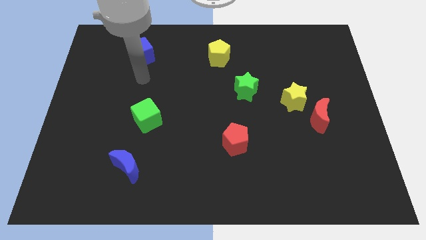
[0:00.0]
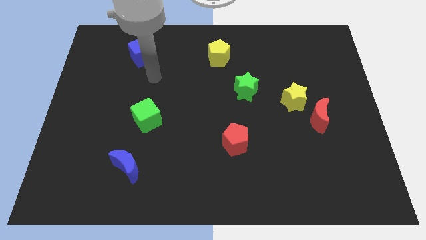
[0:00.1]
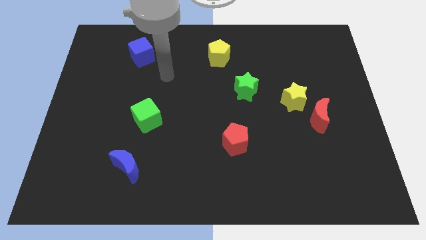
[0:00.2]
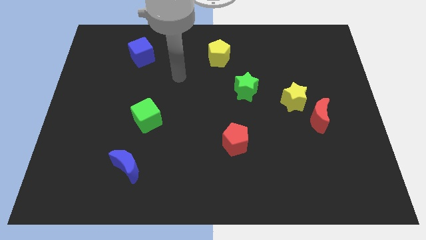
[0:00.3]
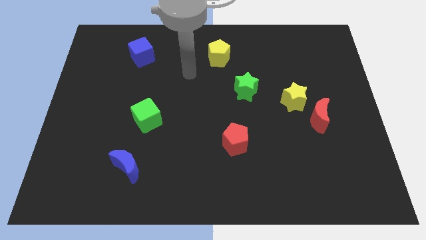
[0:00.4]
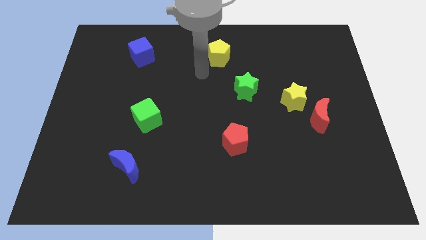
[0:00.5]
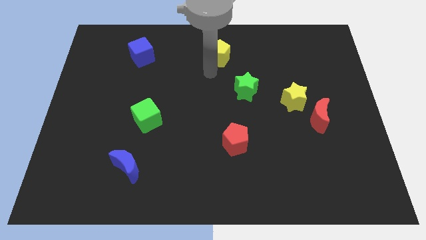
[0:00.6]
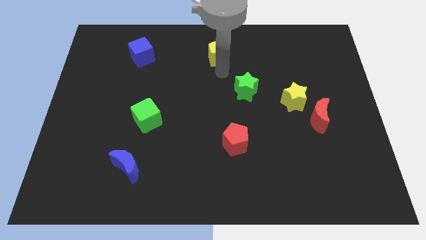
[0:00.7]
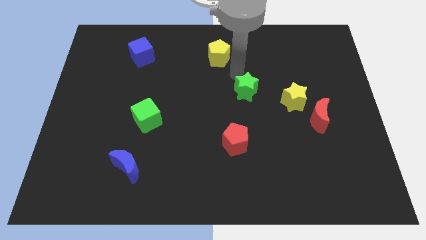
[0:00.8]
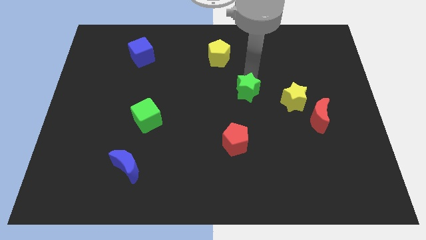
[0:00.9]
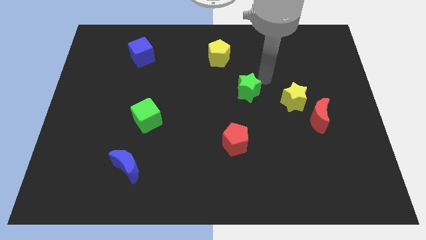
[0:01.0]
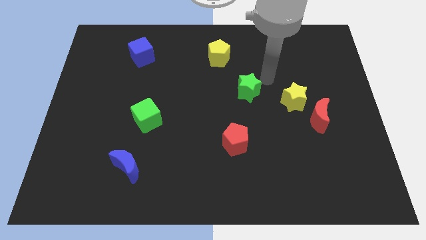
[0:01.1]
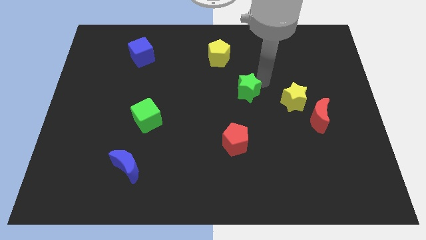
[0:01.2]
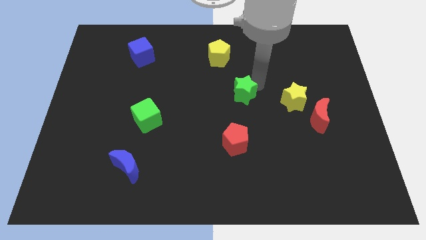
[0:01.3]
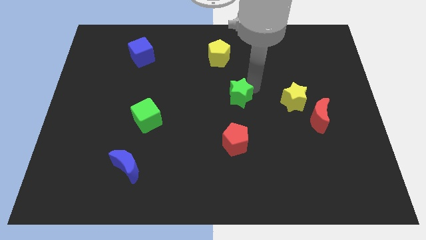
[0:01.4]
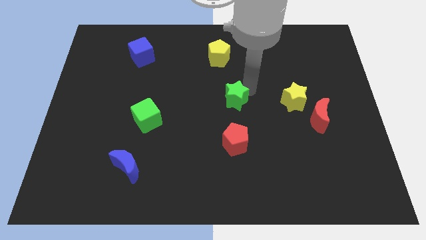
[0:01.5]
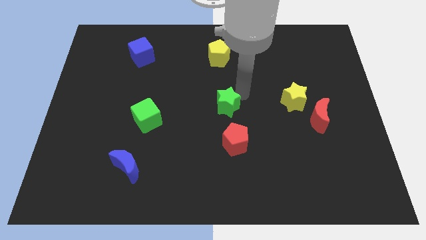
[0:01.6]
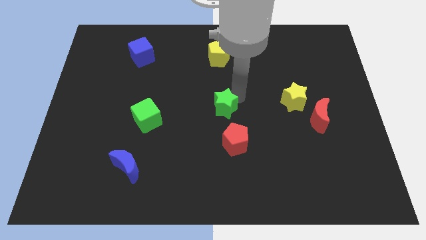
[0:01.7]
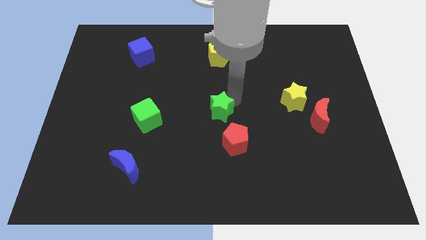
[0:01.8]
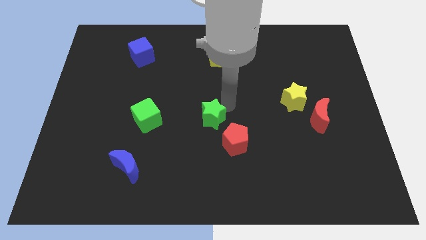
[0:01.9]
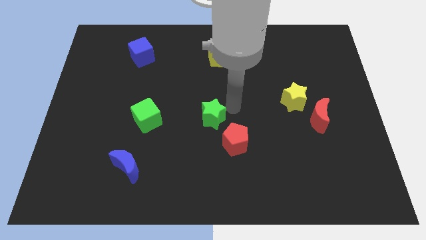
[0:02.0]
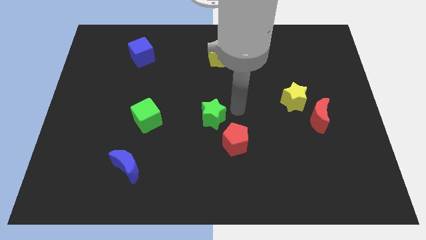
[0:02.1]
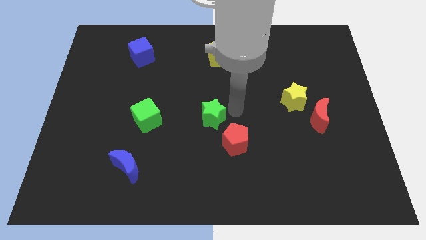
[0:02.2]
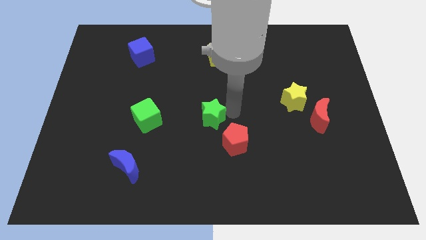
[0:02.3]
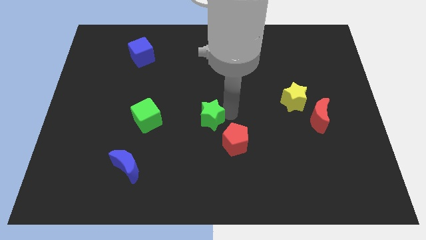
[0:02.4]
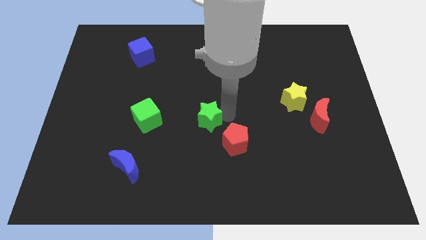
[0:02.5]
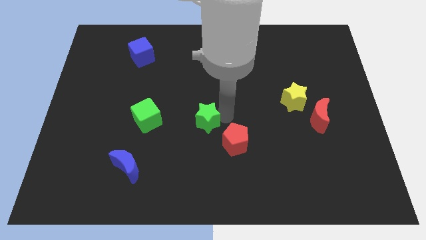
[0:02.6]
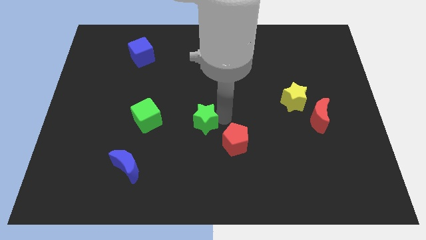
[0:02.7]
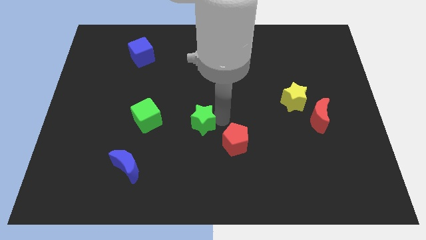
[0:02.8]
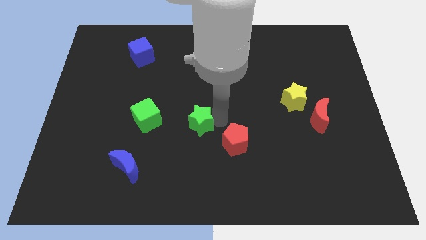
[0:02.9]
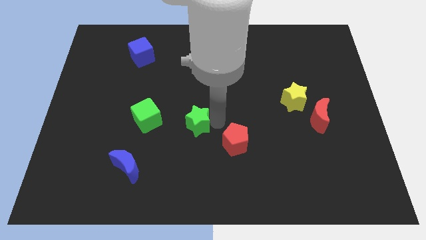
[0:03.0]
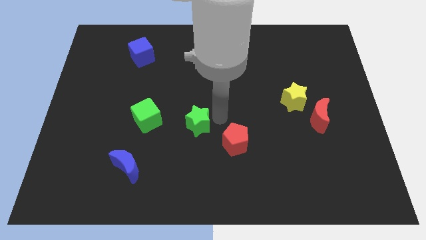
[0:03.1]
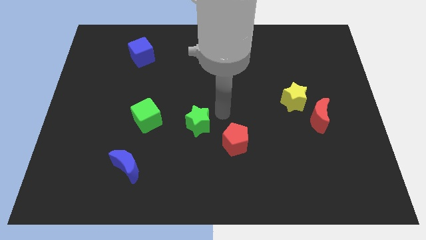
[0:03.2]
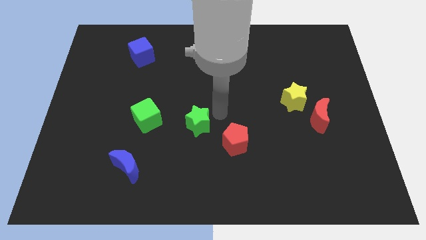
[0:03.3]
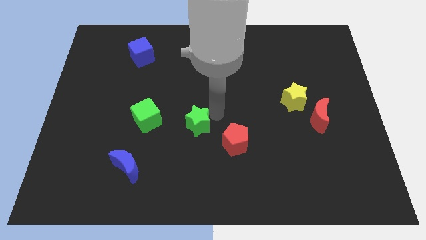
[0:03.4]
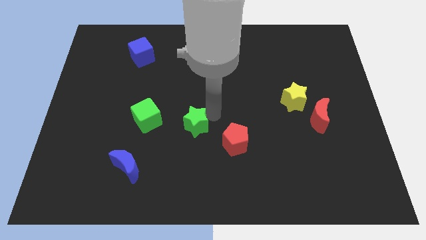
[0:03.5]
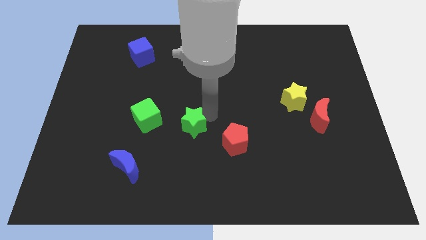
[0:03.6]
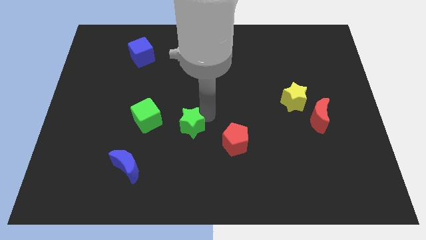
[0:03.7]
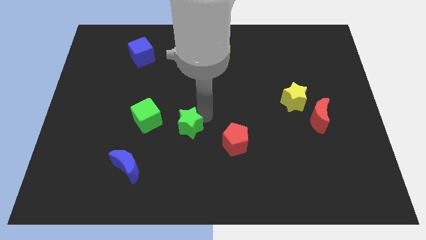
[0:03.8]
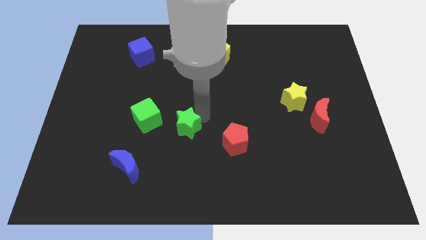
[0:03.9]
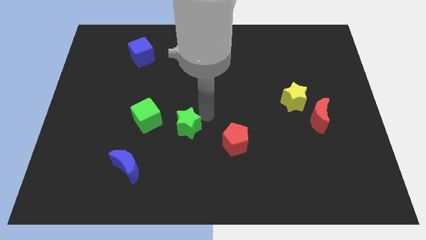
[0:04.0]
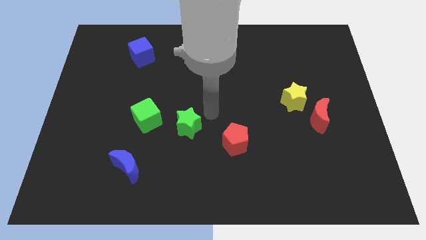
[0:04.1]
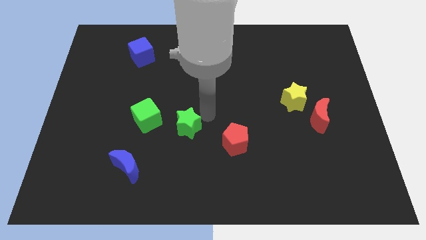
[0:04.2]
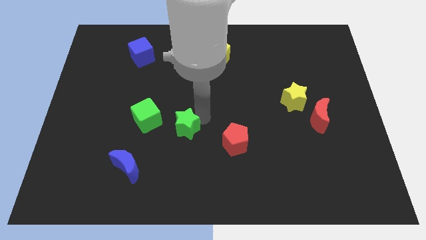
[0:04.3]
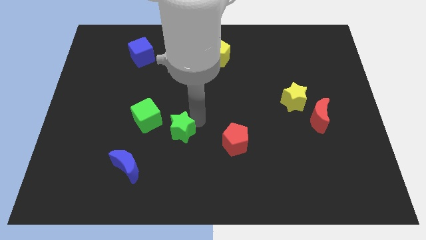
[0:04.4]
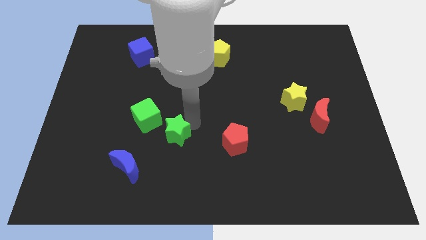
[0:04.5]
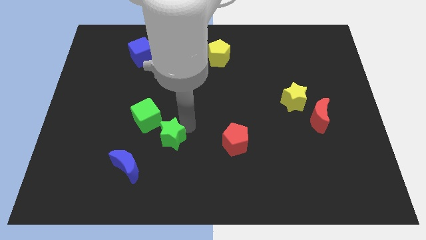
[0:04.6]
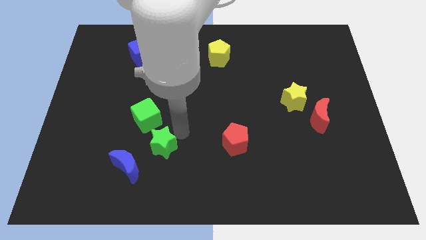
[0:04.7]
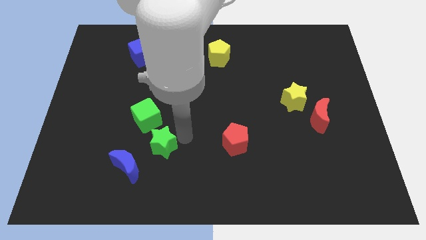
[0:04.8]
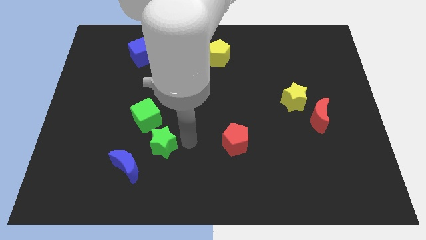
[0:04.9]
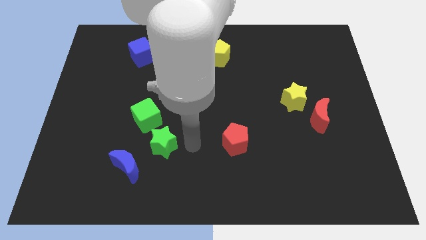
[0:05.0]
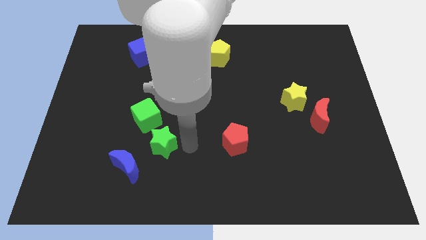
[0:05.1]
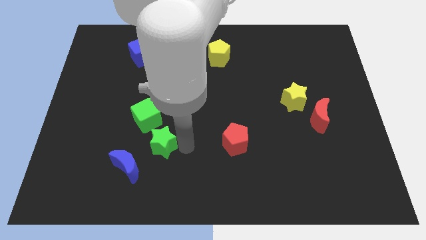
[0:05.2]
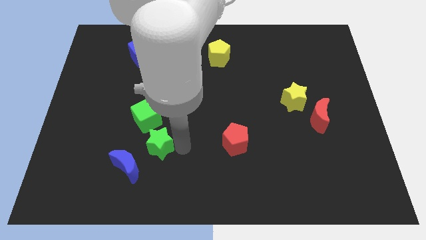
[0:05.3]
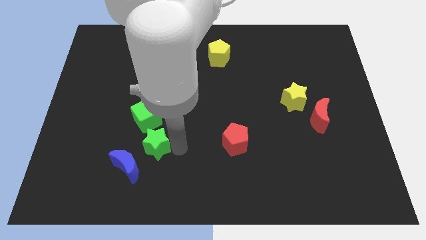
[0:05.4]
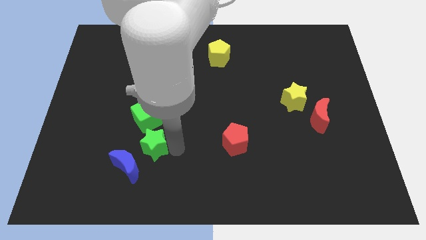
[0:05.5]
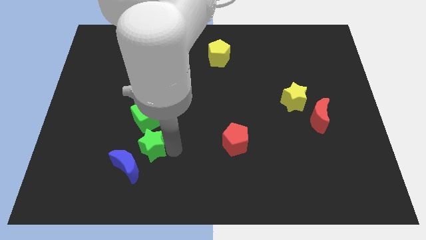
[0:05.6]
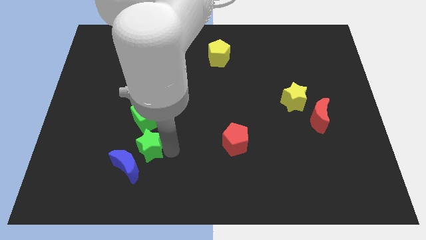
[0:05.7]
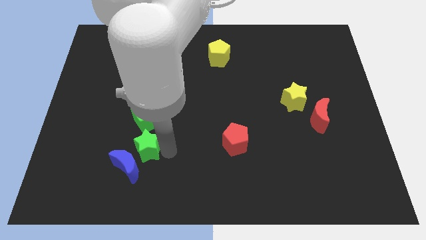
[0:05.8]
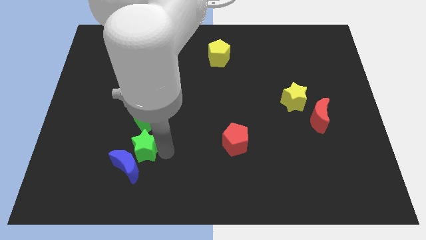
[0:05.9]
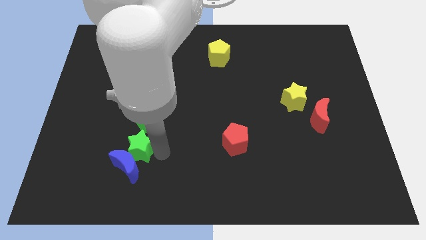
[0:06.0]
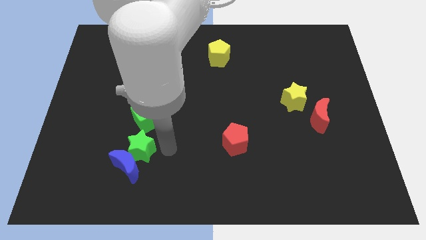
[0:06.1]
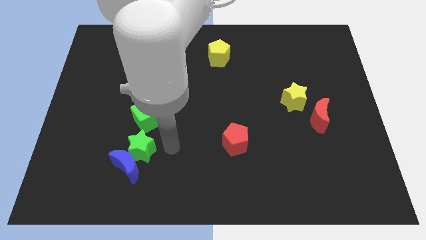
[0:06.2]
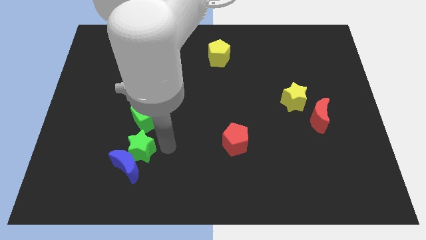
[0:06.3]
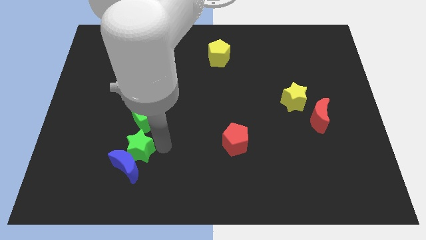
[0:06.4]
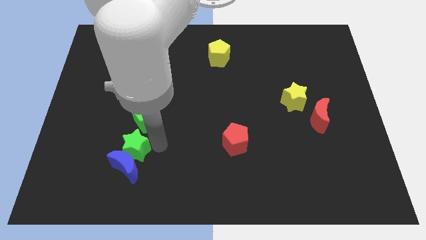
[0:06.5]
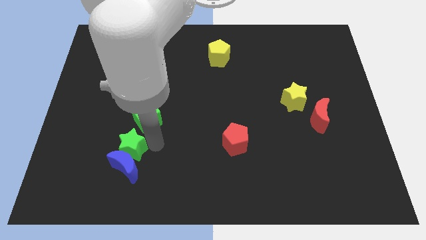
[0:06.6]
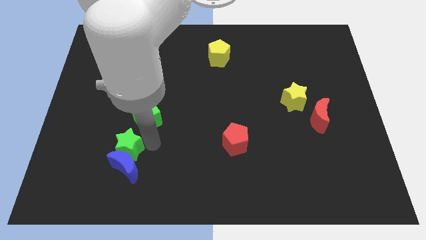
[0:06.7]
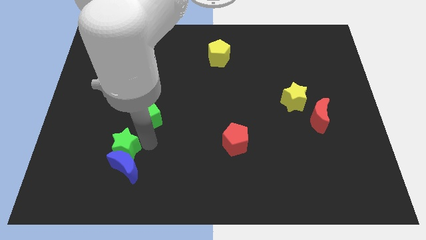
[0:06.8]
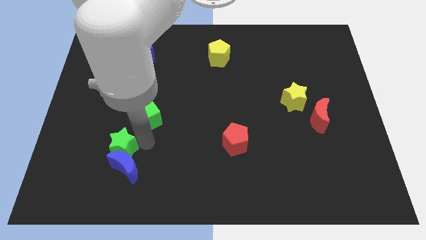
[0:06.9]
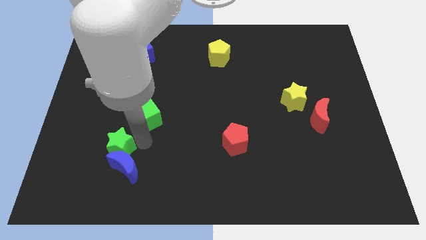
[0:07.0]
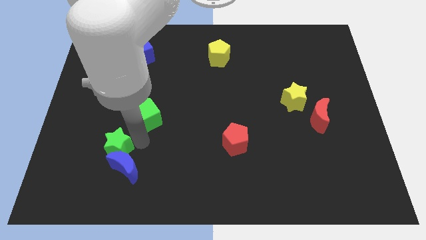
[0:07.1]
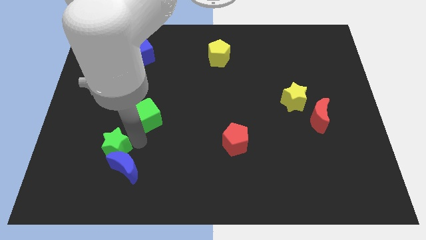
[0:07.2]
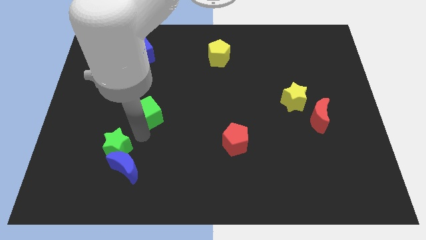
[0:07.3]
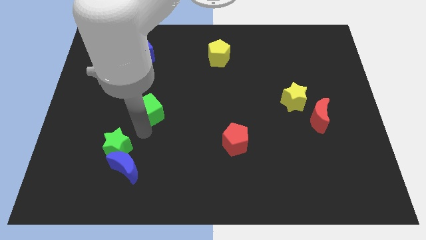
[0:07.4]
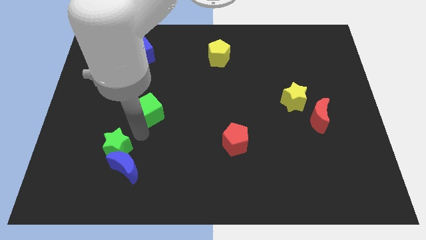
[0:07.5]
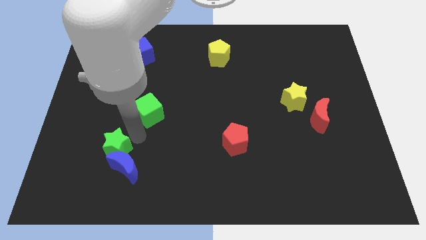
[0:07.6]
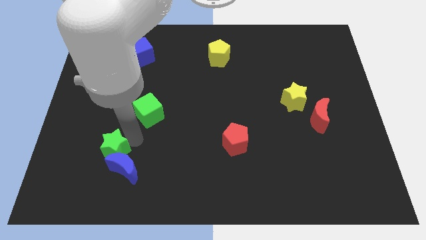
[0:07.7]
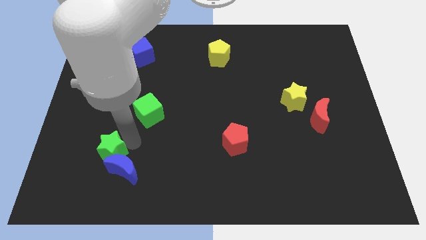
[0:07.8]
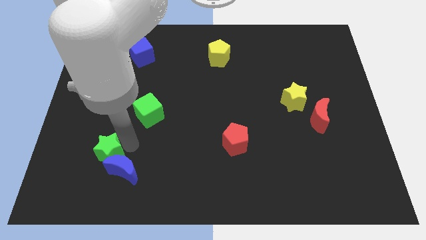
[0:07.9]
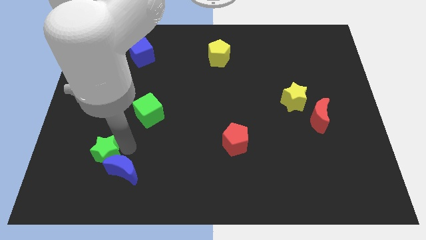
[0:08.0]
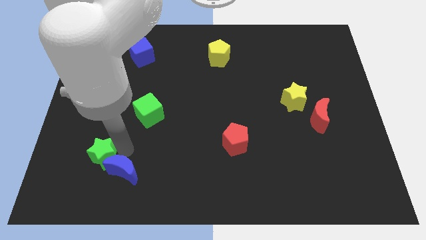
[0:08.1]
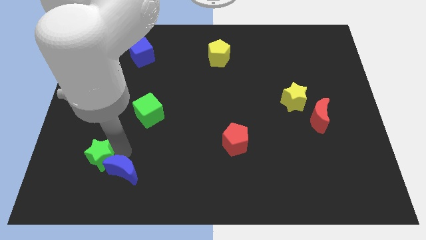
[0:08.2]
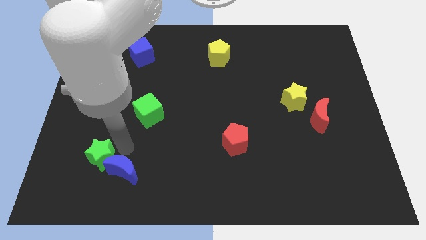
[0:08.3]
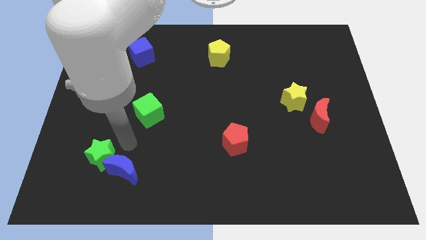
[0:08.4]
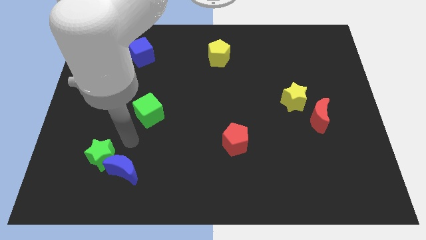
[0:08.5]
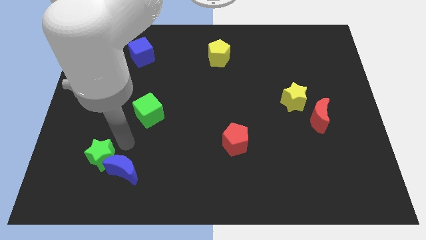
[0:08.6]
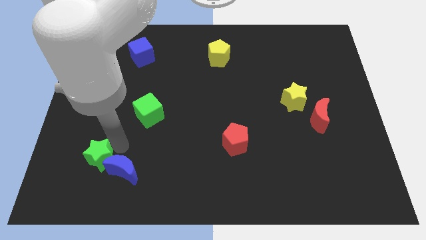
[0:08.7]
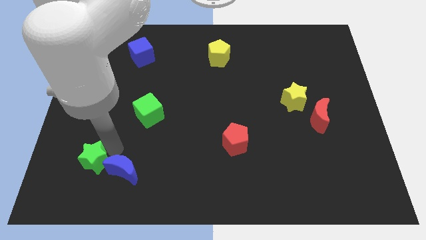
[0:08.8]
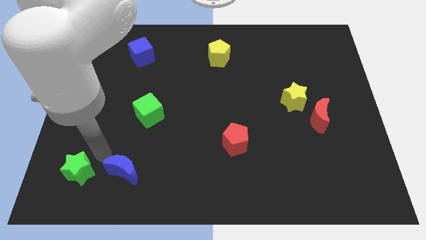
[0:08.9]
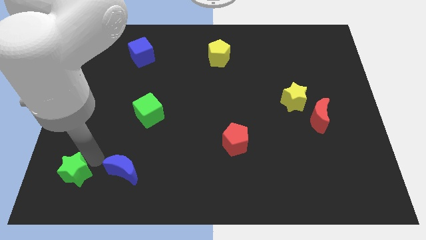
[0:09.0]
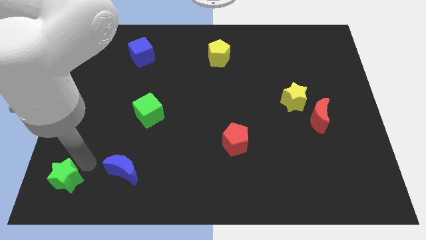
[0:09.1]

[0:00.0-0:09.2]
push the green star to the bottom left
